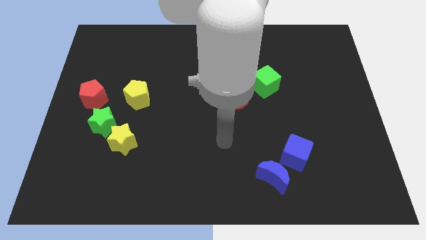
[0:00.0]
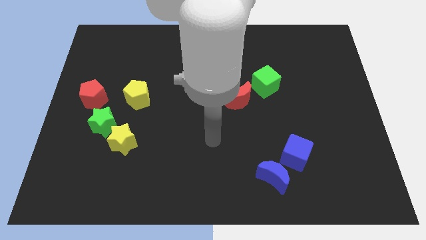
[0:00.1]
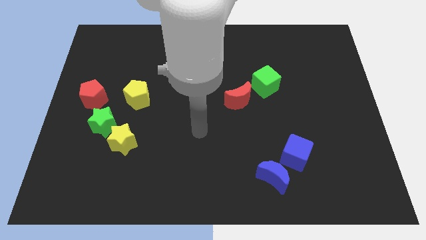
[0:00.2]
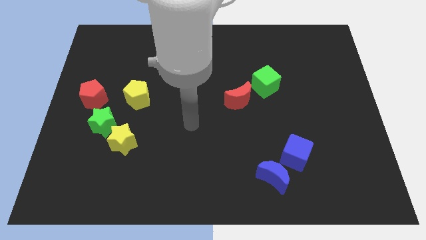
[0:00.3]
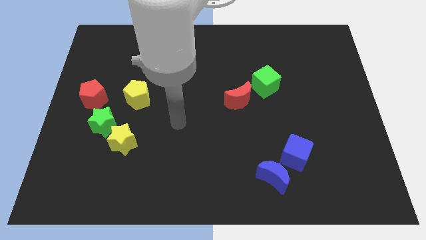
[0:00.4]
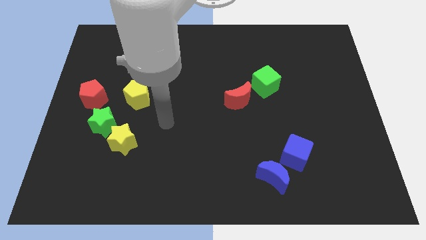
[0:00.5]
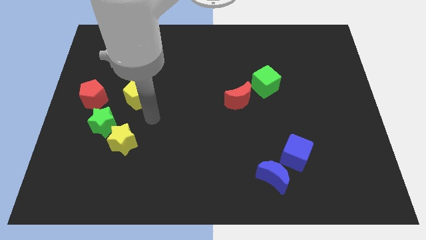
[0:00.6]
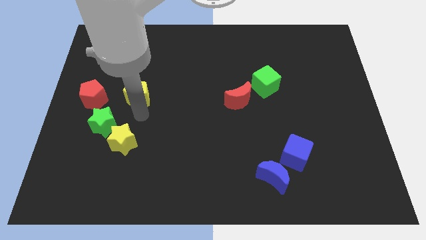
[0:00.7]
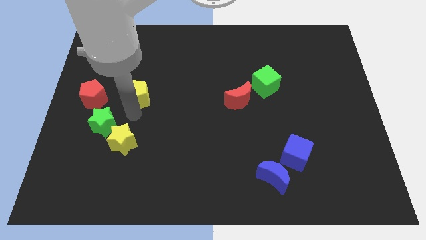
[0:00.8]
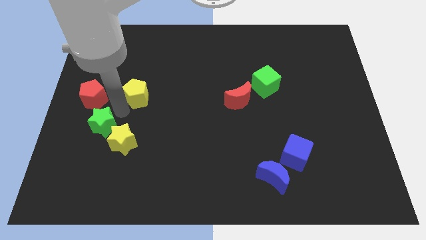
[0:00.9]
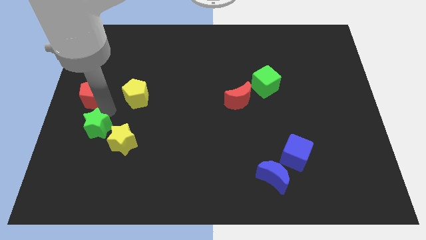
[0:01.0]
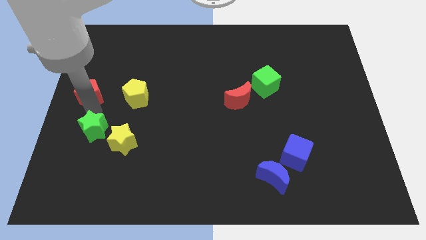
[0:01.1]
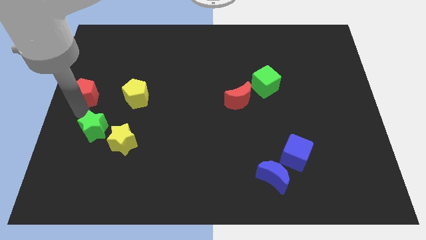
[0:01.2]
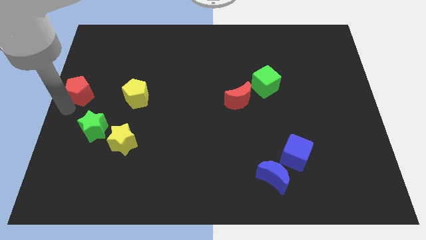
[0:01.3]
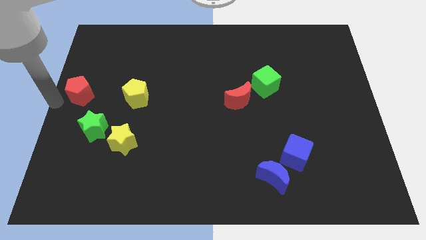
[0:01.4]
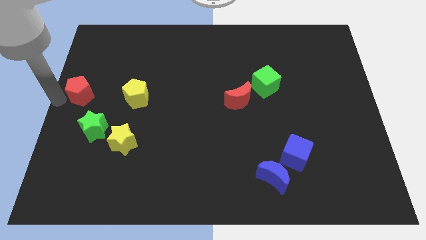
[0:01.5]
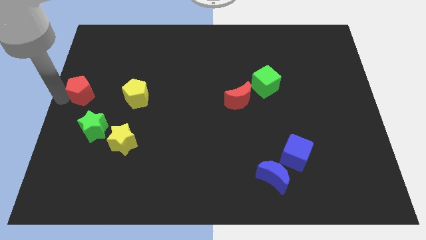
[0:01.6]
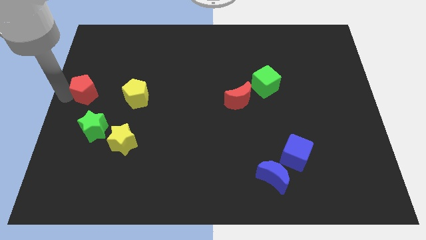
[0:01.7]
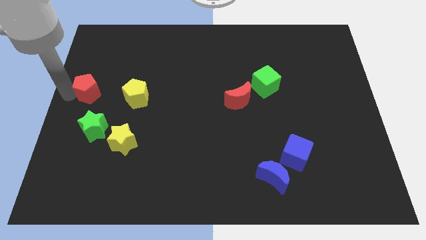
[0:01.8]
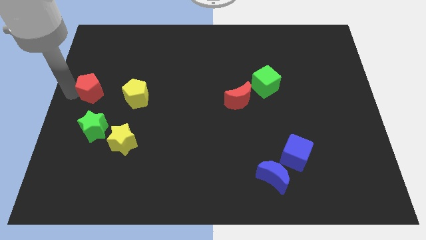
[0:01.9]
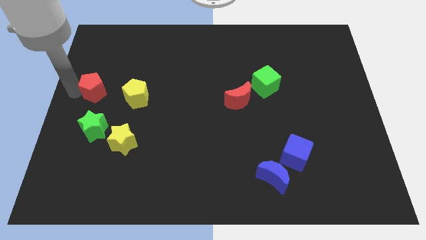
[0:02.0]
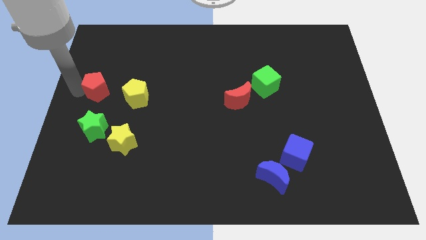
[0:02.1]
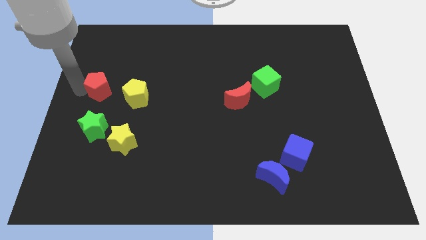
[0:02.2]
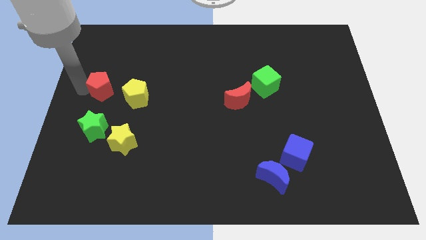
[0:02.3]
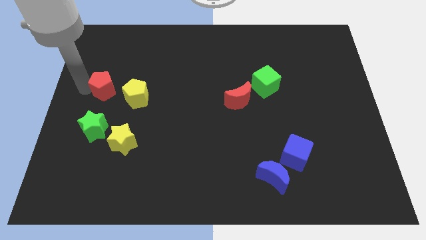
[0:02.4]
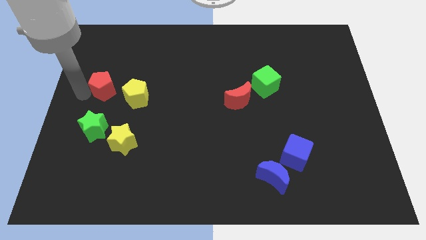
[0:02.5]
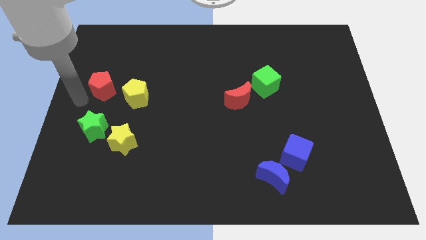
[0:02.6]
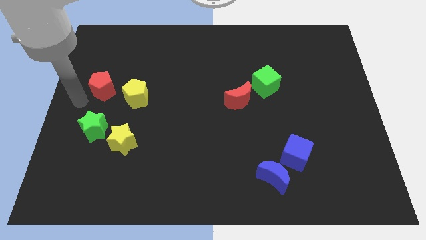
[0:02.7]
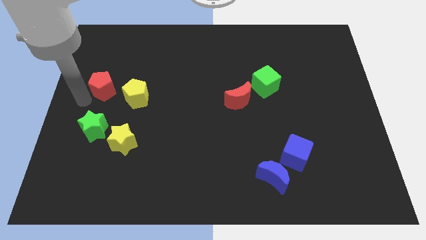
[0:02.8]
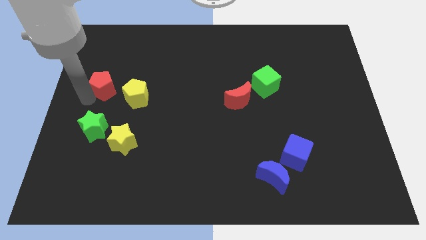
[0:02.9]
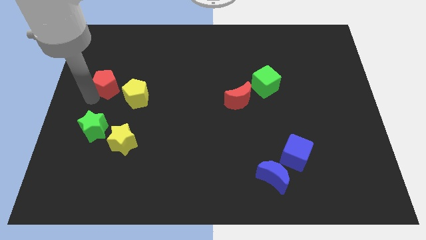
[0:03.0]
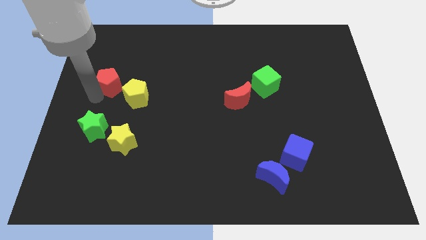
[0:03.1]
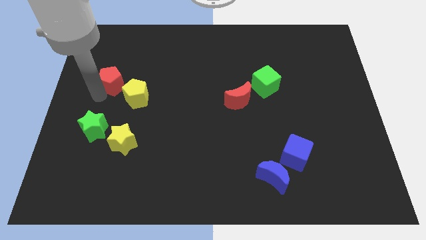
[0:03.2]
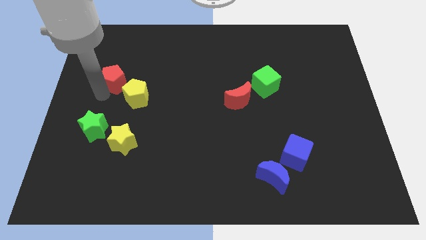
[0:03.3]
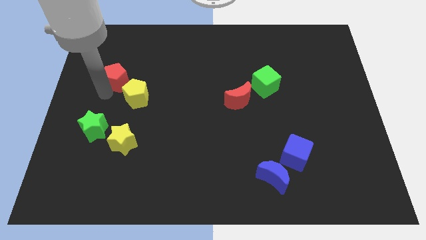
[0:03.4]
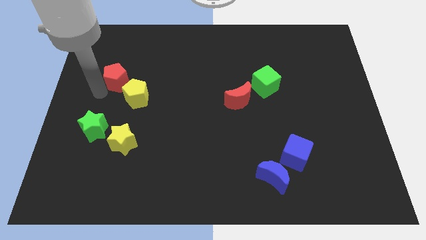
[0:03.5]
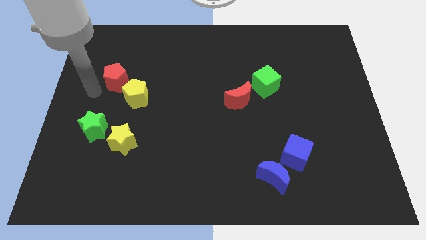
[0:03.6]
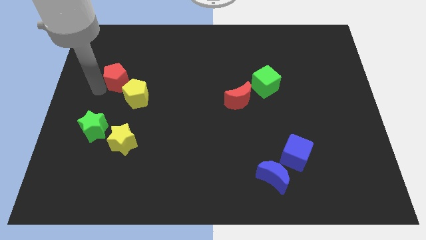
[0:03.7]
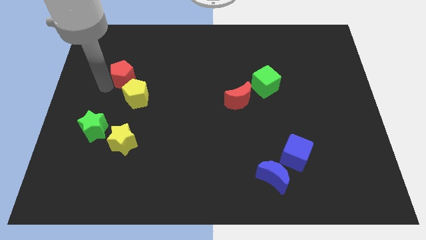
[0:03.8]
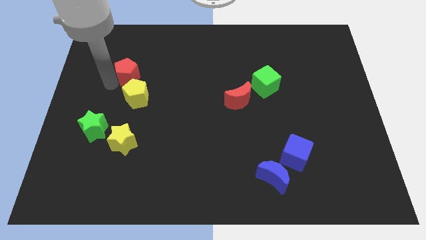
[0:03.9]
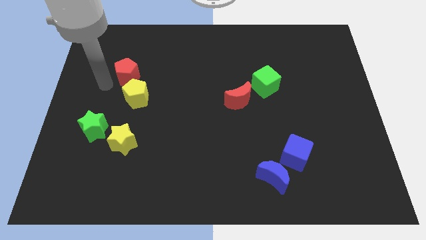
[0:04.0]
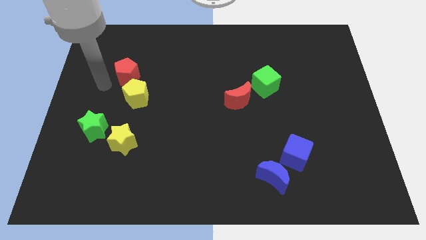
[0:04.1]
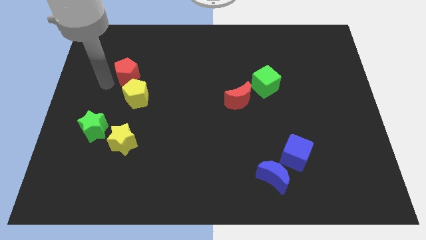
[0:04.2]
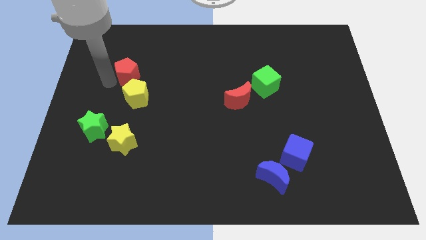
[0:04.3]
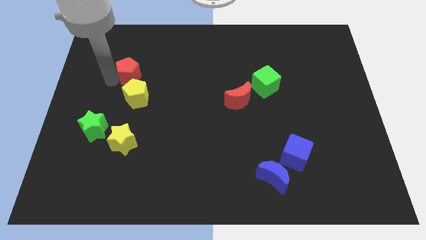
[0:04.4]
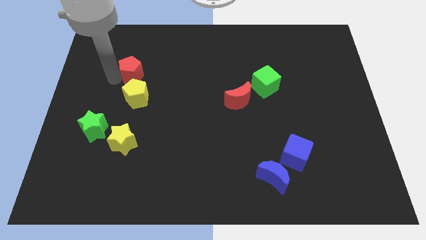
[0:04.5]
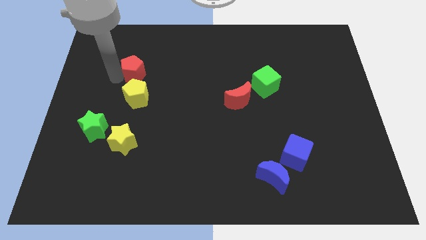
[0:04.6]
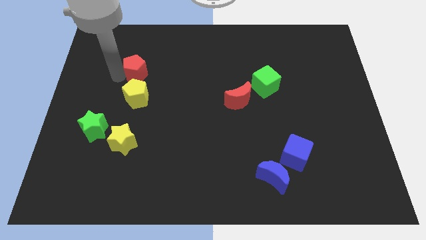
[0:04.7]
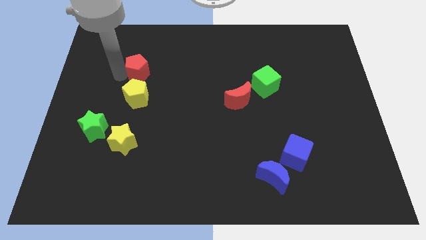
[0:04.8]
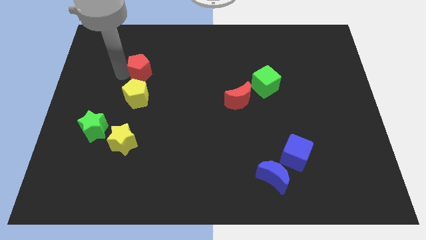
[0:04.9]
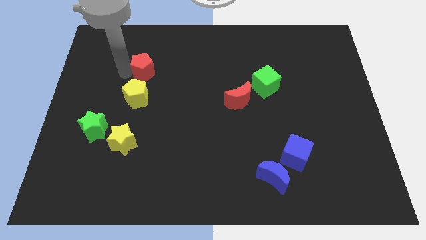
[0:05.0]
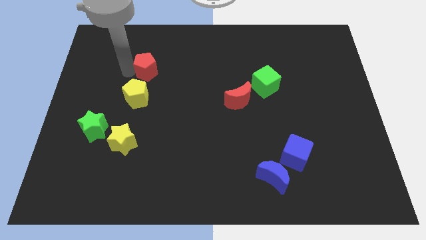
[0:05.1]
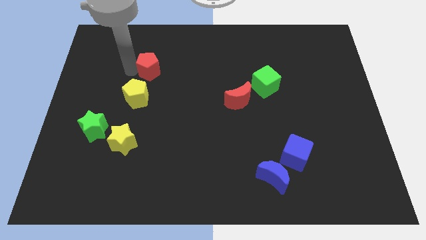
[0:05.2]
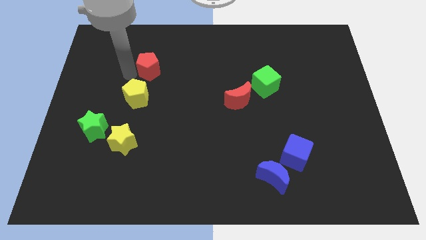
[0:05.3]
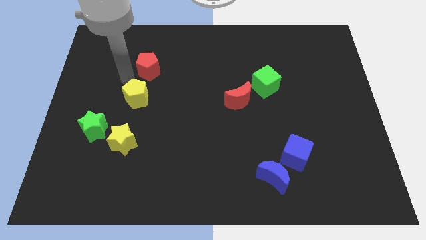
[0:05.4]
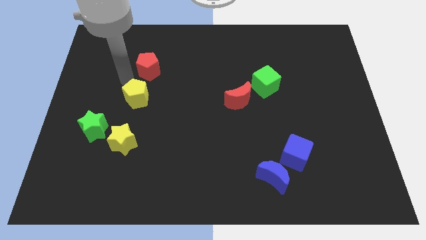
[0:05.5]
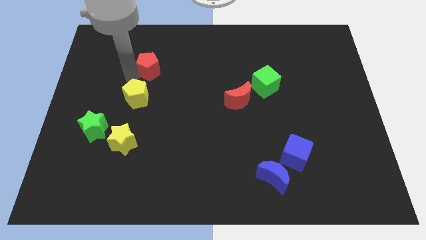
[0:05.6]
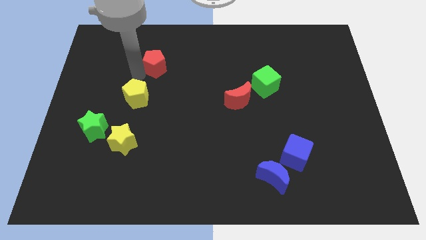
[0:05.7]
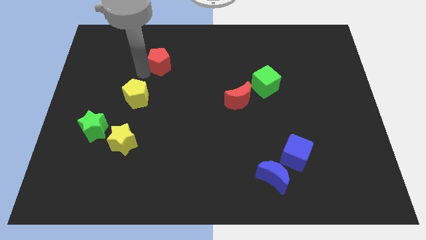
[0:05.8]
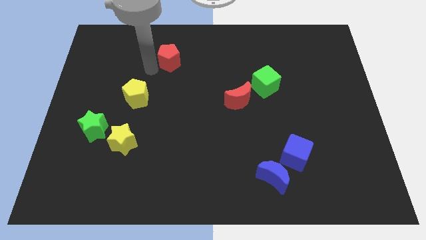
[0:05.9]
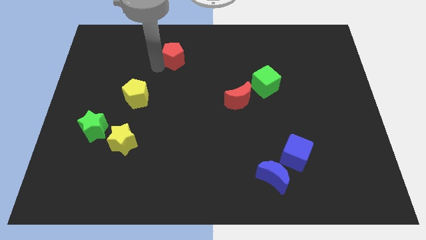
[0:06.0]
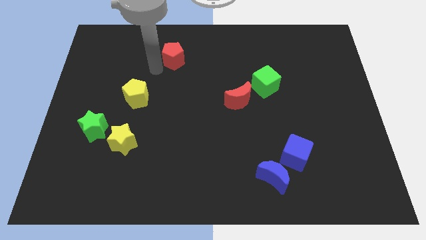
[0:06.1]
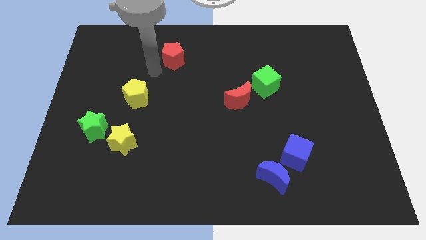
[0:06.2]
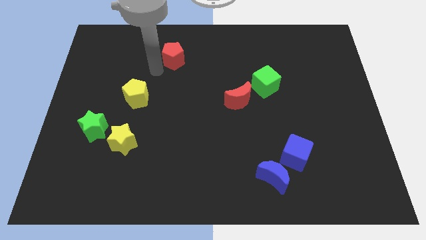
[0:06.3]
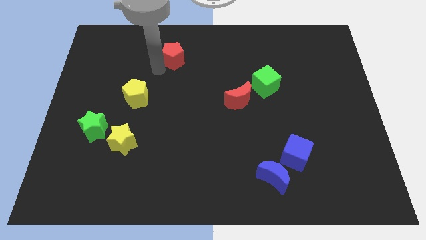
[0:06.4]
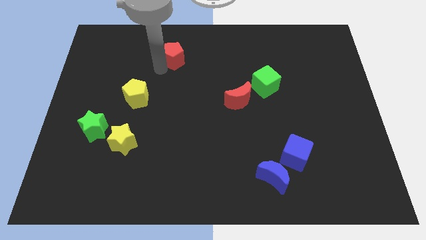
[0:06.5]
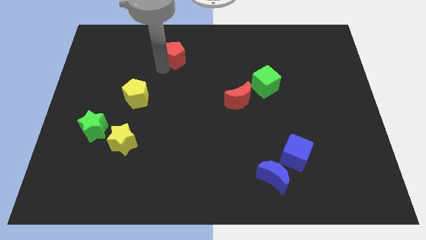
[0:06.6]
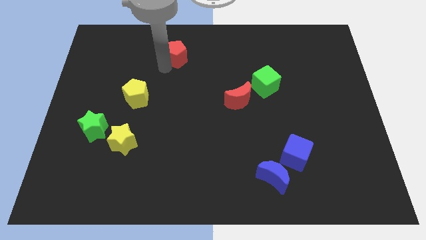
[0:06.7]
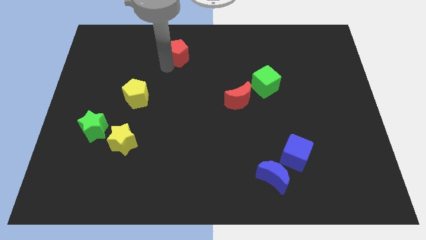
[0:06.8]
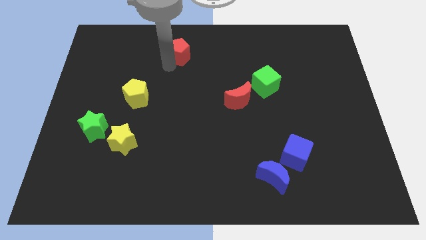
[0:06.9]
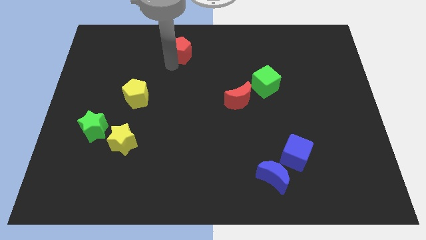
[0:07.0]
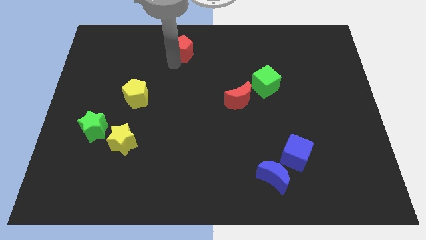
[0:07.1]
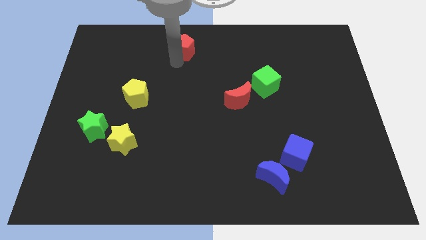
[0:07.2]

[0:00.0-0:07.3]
move the red pentagon to the towards your base

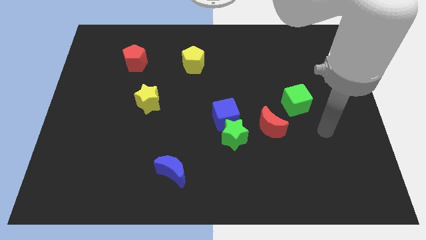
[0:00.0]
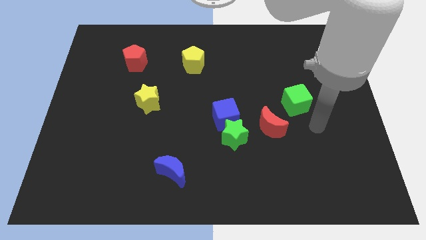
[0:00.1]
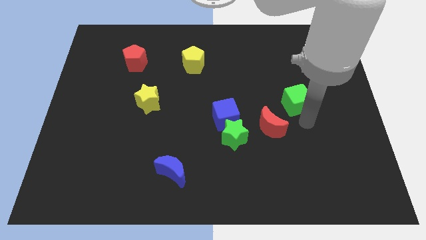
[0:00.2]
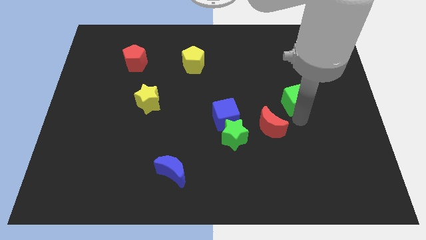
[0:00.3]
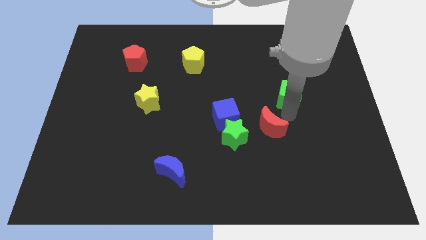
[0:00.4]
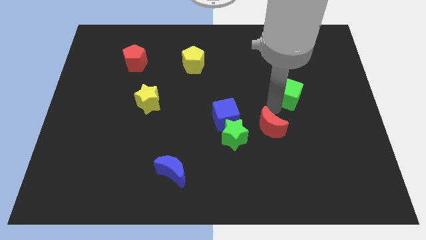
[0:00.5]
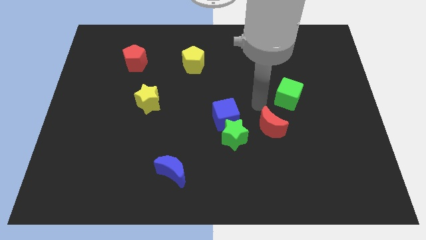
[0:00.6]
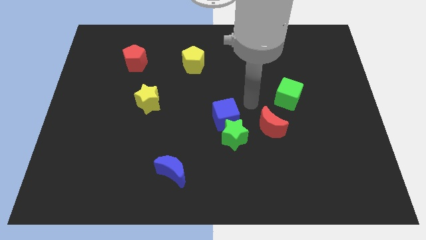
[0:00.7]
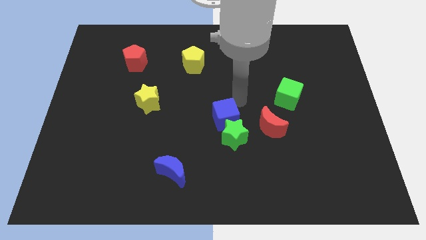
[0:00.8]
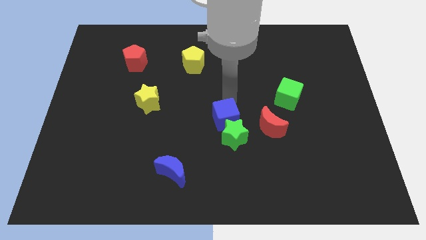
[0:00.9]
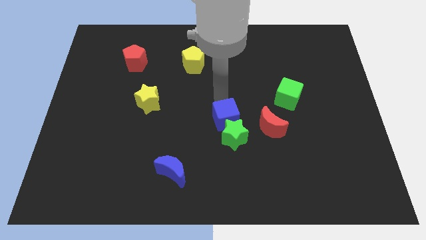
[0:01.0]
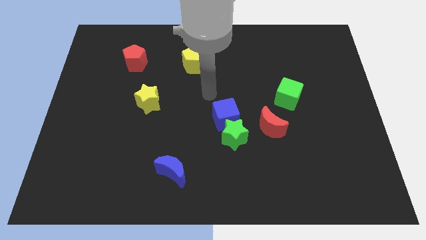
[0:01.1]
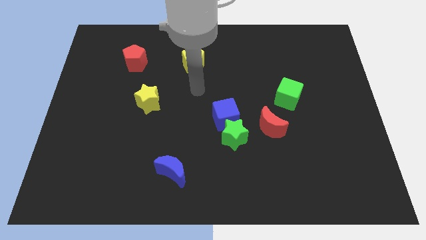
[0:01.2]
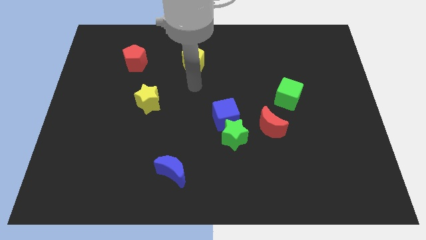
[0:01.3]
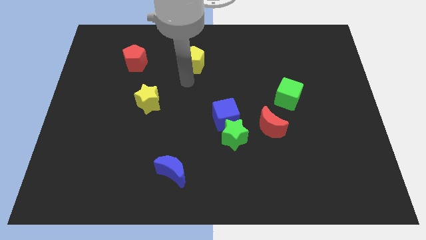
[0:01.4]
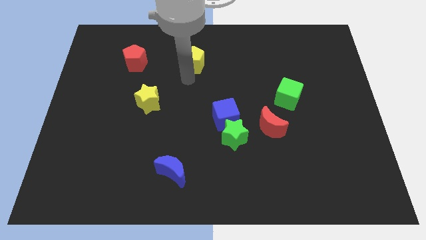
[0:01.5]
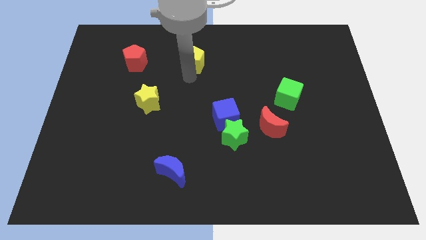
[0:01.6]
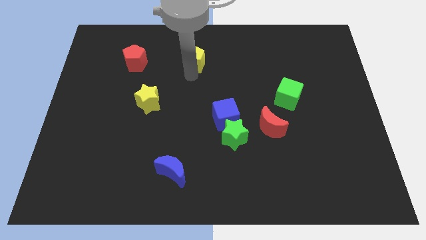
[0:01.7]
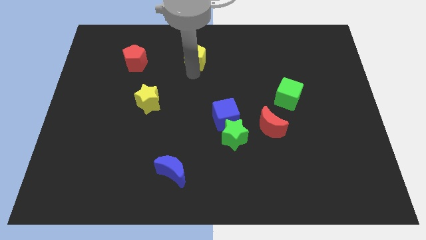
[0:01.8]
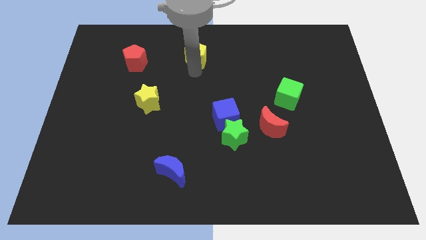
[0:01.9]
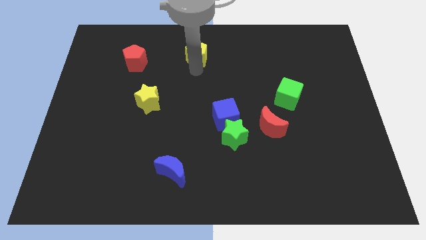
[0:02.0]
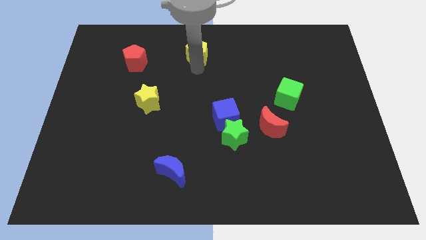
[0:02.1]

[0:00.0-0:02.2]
push the yellow pentagon to the top side
